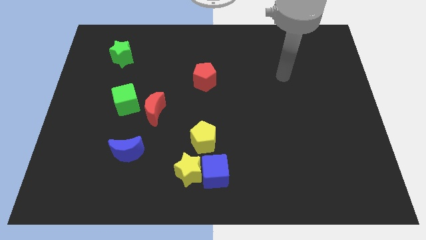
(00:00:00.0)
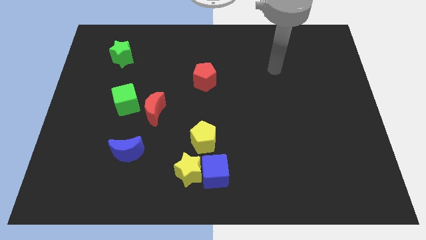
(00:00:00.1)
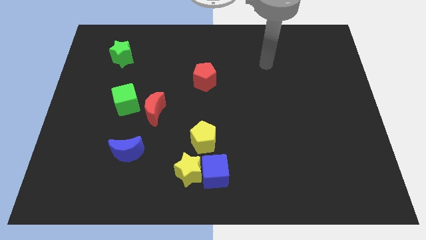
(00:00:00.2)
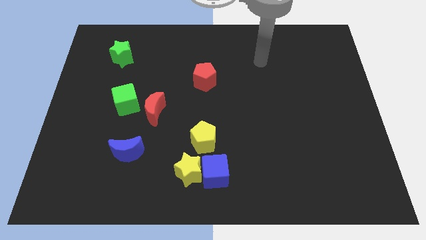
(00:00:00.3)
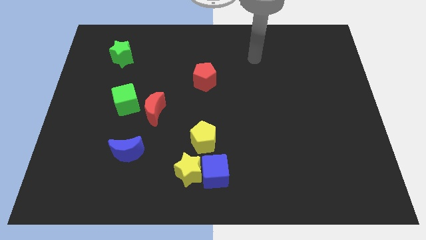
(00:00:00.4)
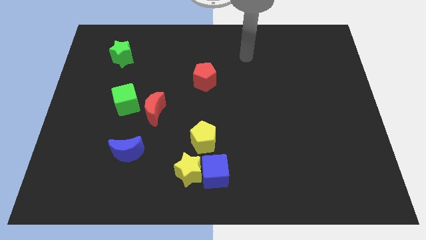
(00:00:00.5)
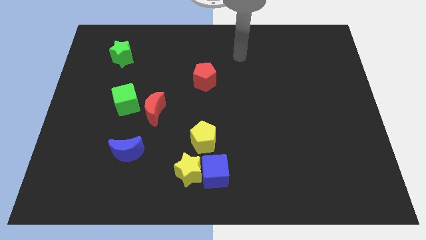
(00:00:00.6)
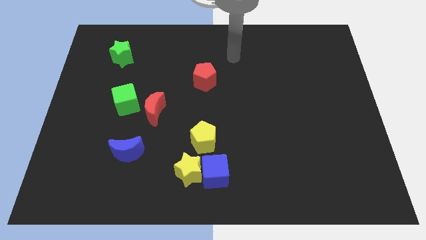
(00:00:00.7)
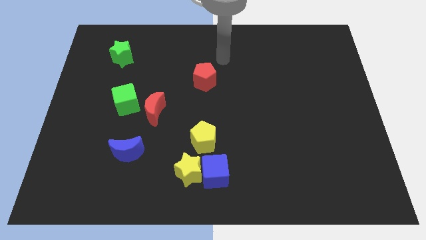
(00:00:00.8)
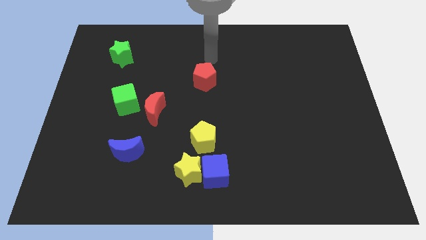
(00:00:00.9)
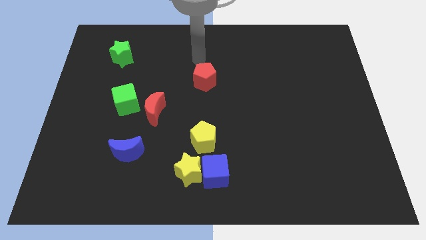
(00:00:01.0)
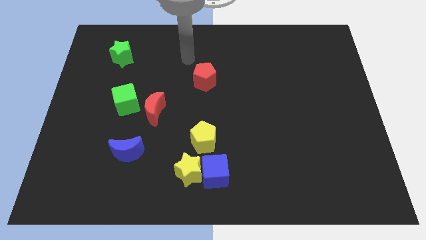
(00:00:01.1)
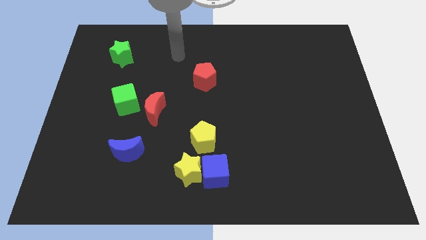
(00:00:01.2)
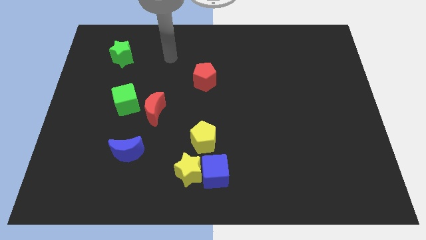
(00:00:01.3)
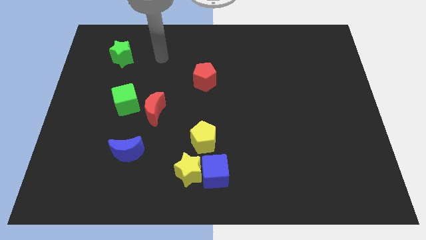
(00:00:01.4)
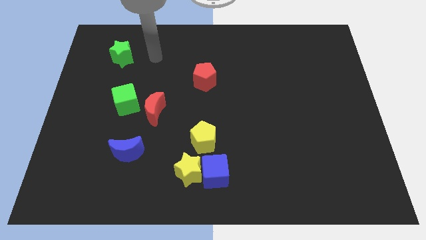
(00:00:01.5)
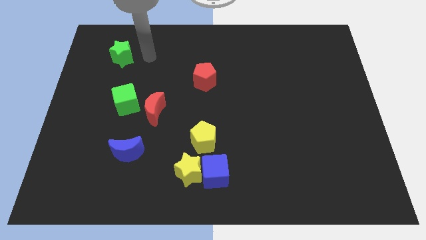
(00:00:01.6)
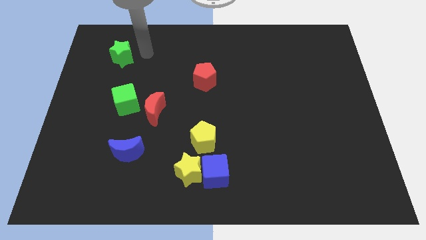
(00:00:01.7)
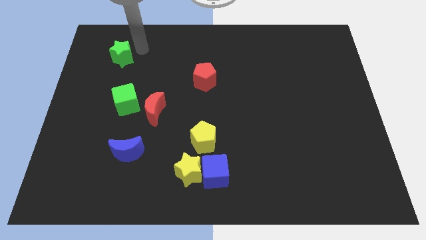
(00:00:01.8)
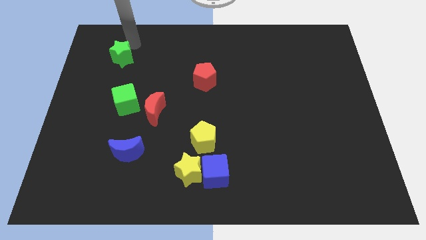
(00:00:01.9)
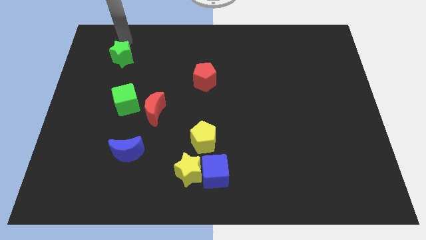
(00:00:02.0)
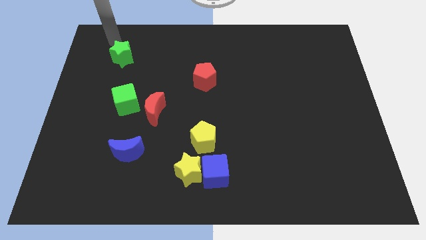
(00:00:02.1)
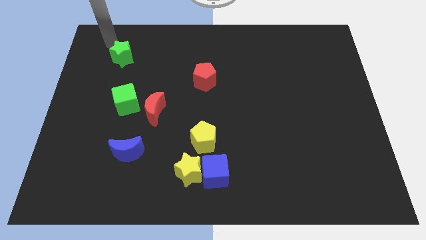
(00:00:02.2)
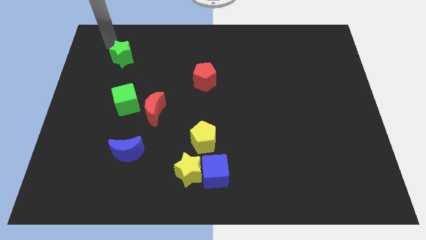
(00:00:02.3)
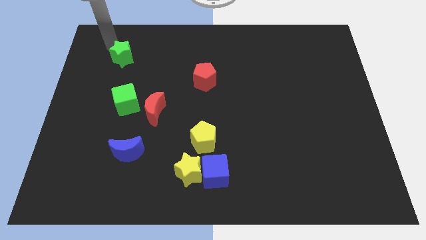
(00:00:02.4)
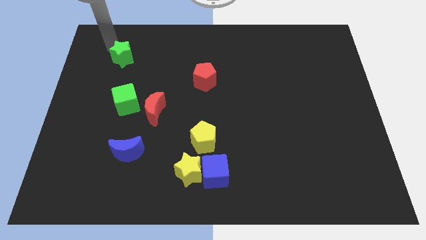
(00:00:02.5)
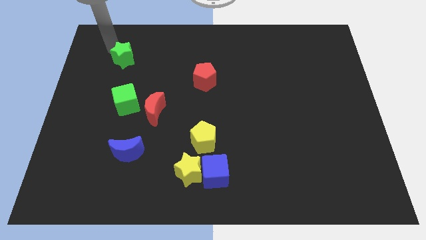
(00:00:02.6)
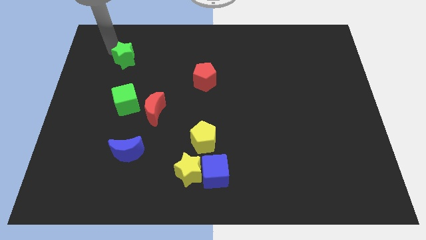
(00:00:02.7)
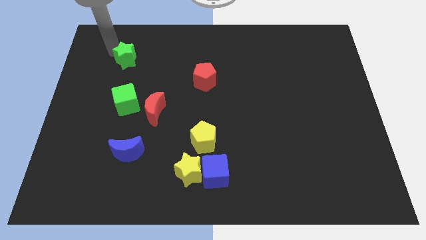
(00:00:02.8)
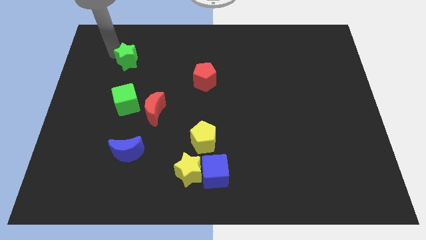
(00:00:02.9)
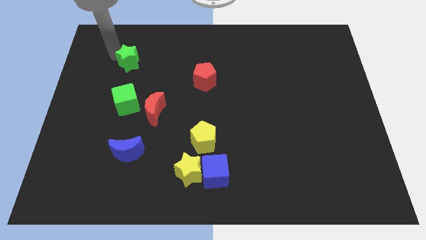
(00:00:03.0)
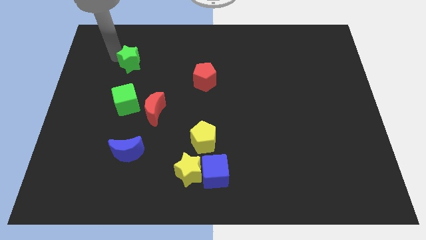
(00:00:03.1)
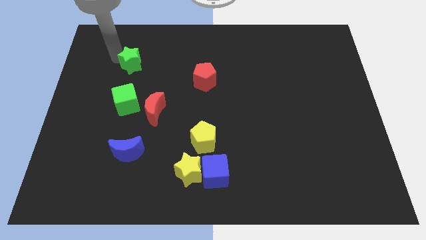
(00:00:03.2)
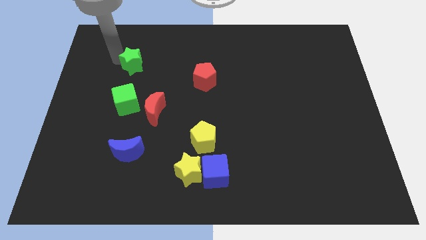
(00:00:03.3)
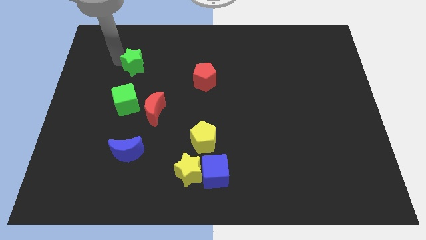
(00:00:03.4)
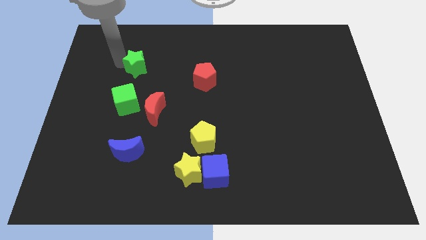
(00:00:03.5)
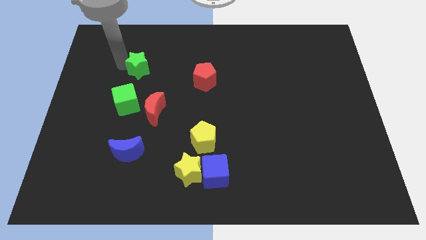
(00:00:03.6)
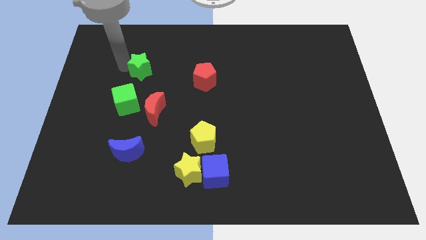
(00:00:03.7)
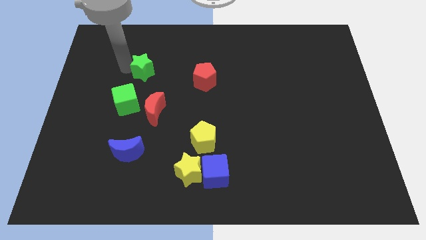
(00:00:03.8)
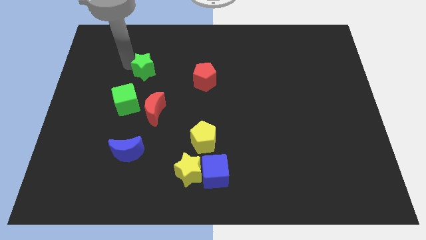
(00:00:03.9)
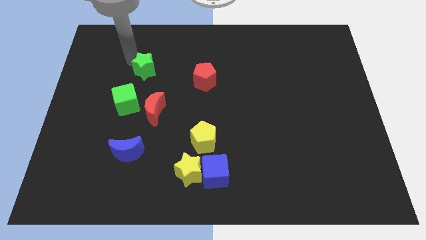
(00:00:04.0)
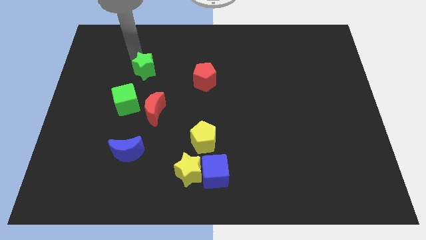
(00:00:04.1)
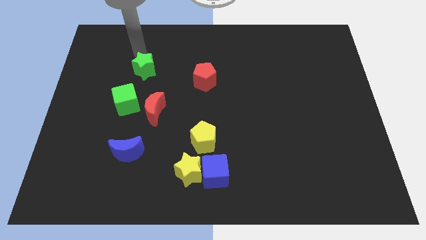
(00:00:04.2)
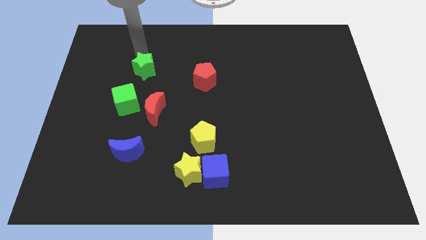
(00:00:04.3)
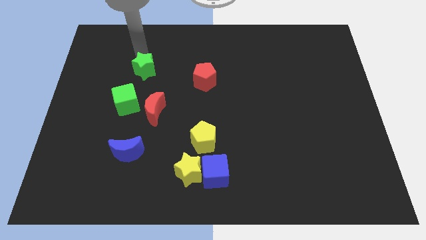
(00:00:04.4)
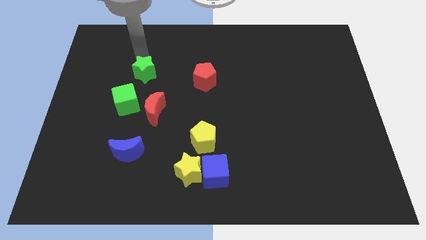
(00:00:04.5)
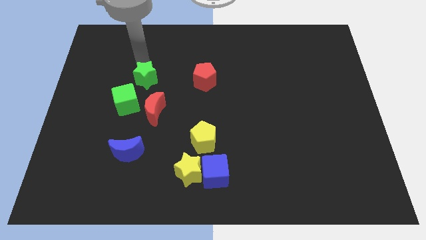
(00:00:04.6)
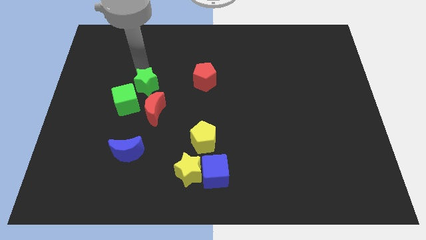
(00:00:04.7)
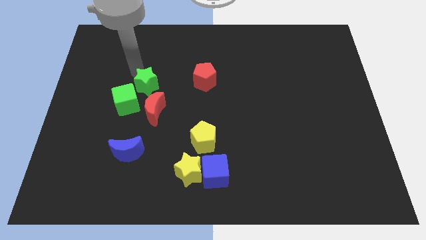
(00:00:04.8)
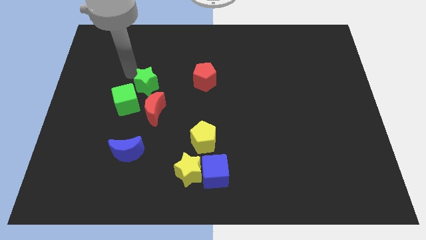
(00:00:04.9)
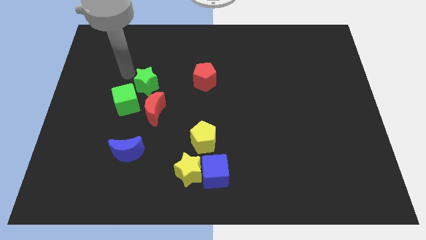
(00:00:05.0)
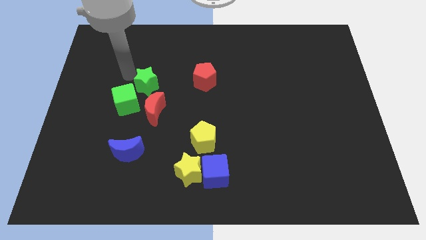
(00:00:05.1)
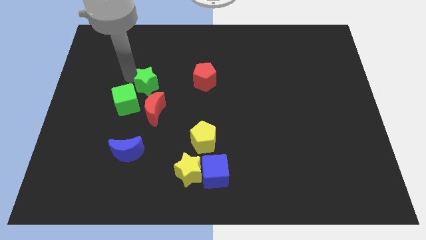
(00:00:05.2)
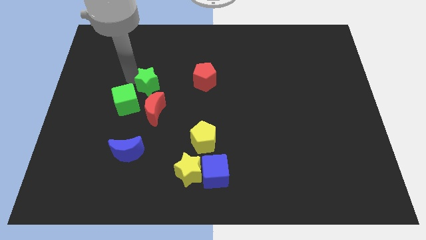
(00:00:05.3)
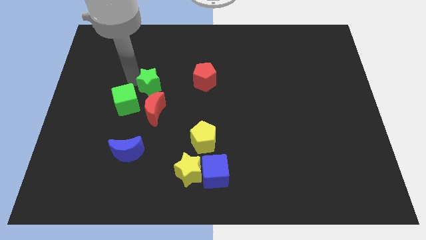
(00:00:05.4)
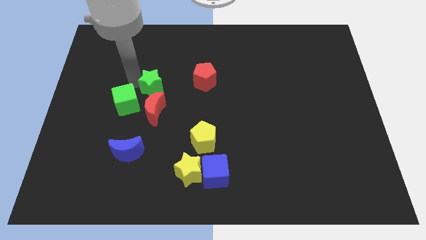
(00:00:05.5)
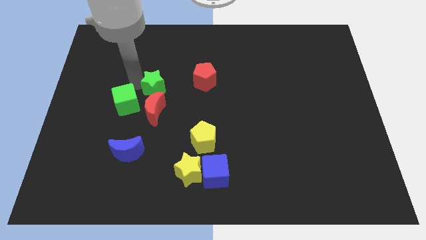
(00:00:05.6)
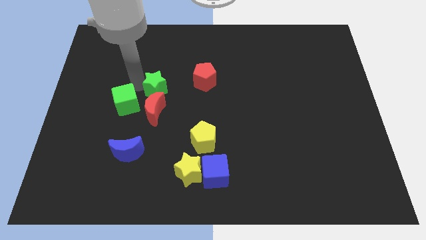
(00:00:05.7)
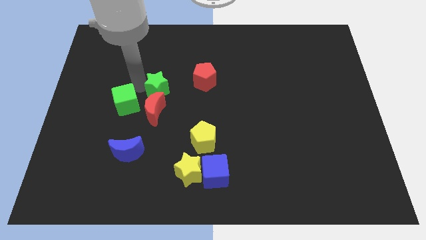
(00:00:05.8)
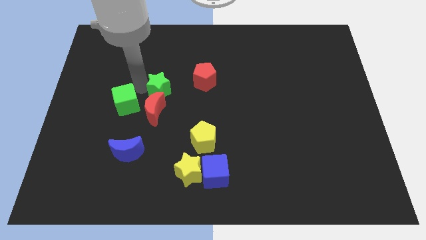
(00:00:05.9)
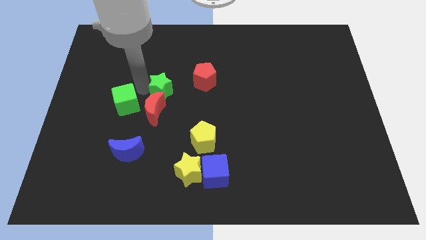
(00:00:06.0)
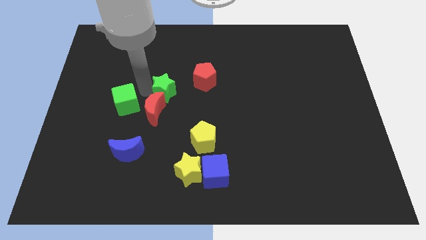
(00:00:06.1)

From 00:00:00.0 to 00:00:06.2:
put the green star to the middle

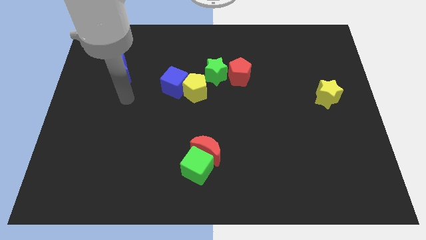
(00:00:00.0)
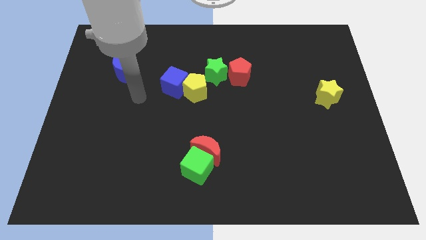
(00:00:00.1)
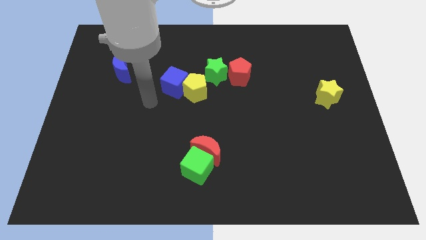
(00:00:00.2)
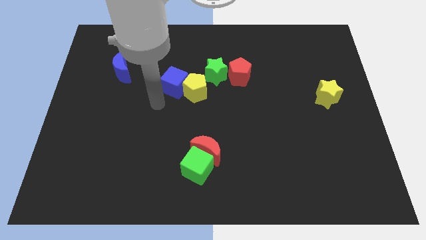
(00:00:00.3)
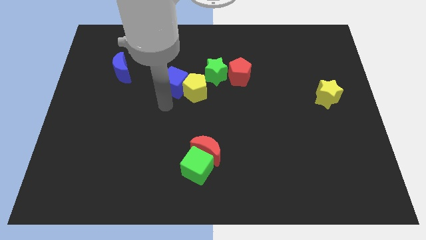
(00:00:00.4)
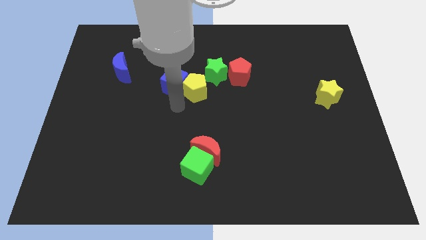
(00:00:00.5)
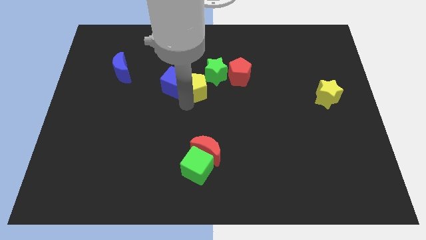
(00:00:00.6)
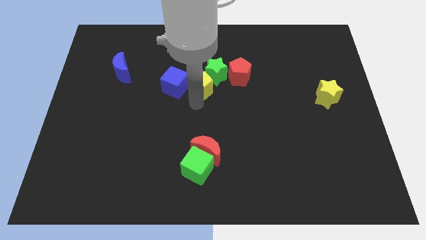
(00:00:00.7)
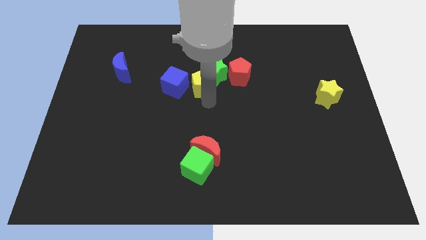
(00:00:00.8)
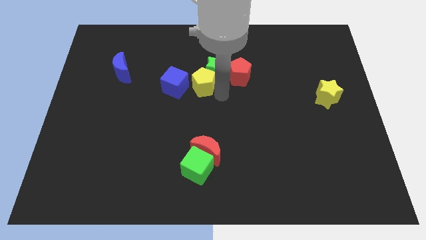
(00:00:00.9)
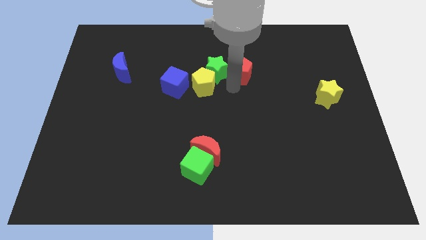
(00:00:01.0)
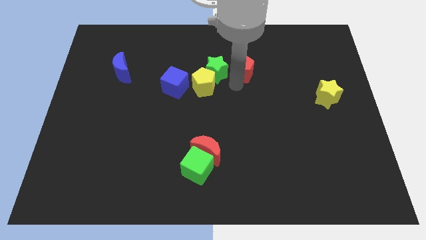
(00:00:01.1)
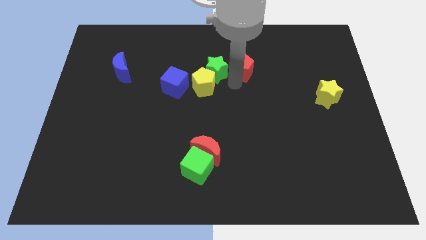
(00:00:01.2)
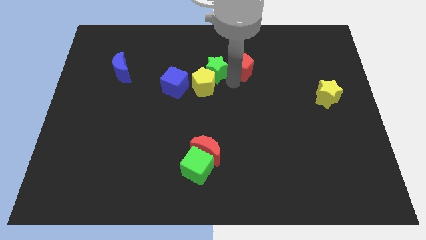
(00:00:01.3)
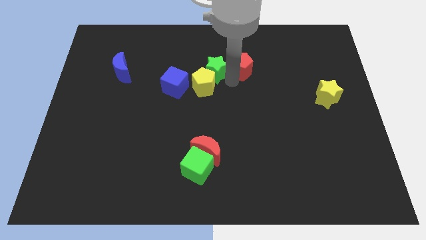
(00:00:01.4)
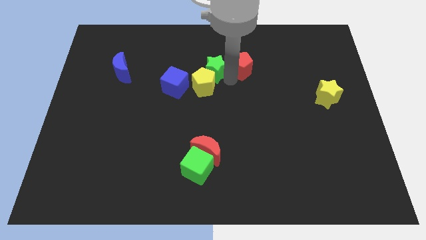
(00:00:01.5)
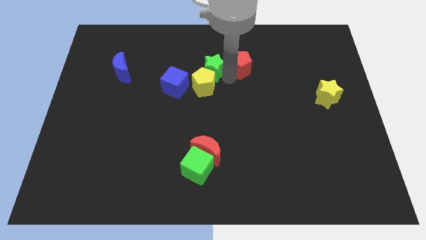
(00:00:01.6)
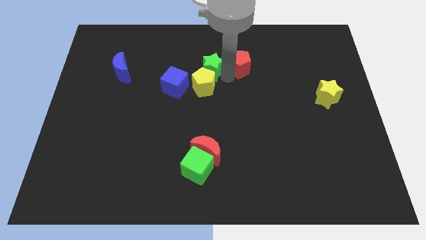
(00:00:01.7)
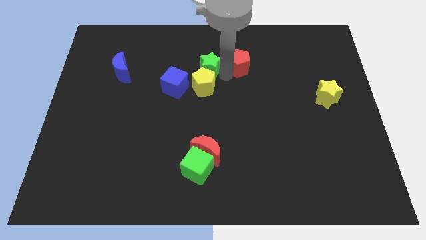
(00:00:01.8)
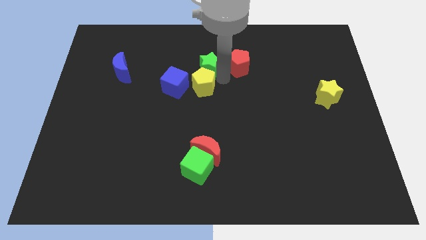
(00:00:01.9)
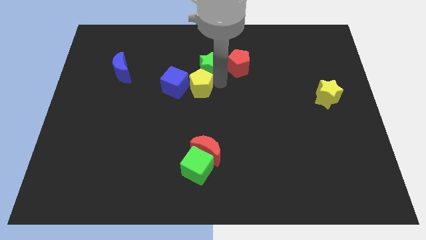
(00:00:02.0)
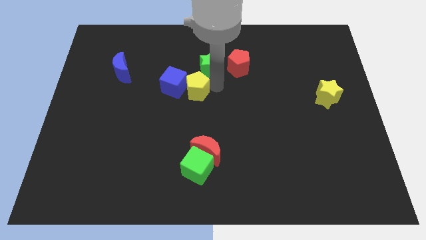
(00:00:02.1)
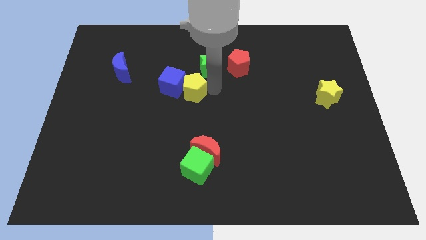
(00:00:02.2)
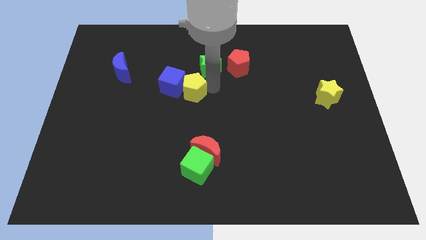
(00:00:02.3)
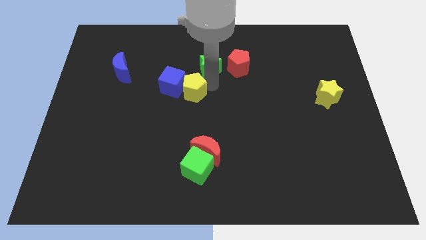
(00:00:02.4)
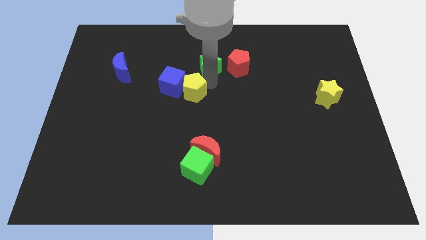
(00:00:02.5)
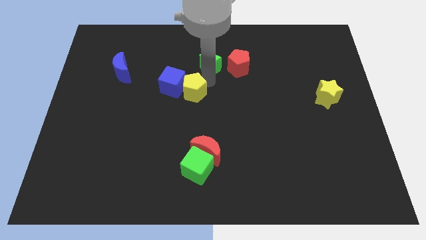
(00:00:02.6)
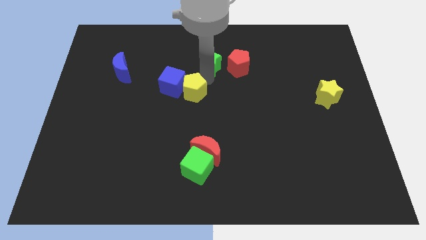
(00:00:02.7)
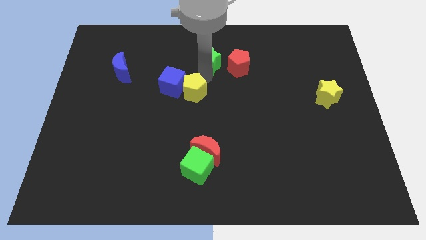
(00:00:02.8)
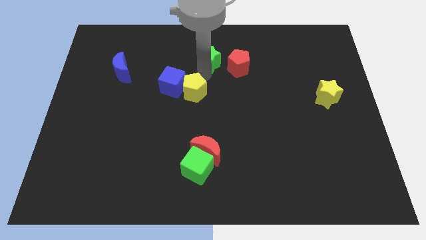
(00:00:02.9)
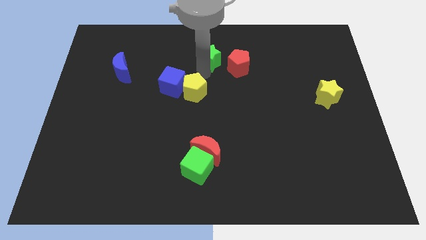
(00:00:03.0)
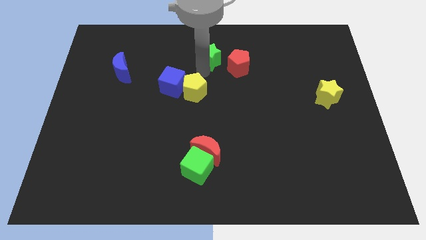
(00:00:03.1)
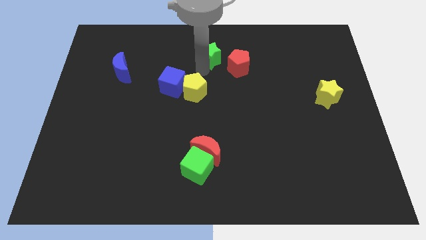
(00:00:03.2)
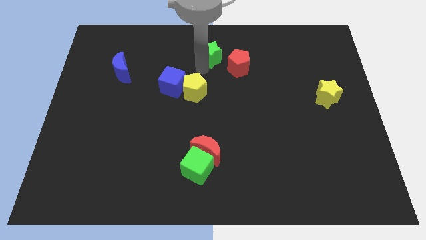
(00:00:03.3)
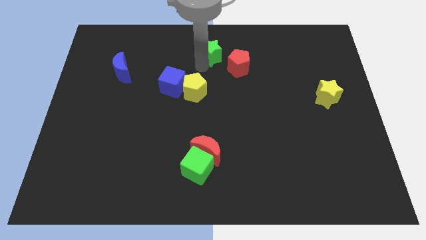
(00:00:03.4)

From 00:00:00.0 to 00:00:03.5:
move the green star to the top side
